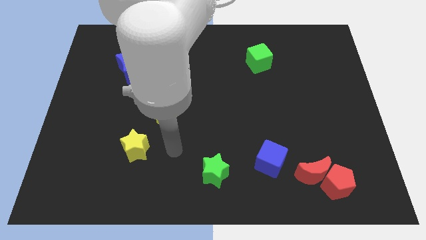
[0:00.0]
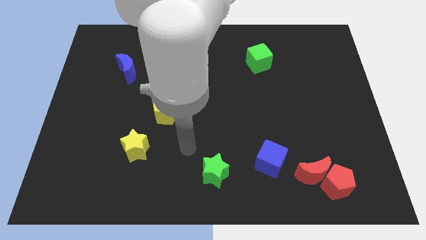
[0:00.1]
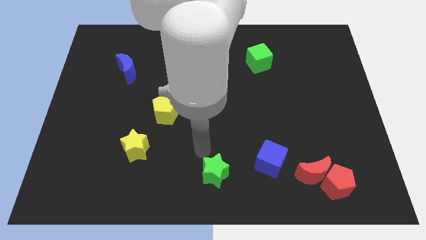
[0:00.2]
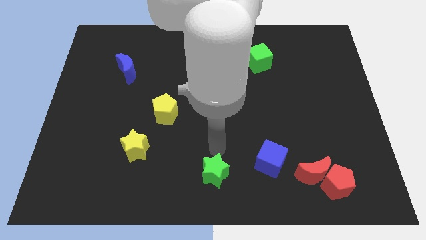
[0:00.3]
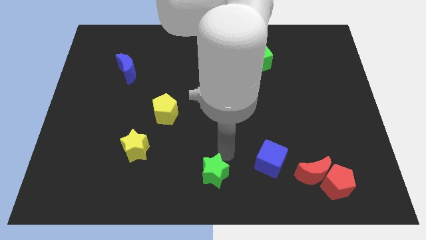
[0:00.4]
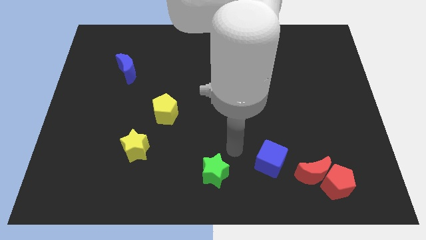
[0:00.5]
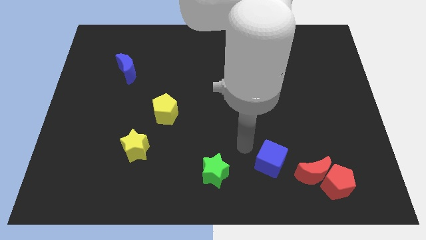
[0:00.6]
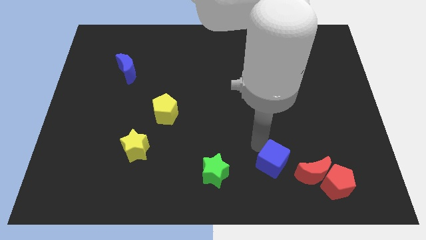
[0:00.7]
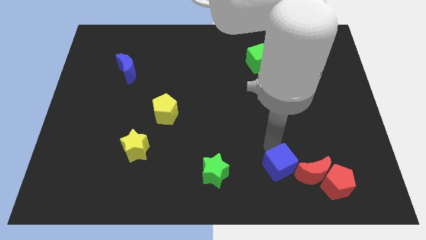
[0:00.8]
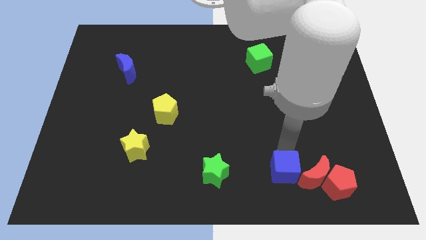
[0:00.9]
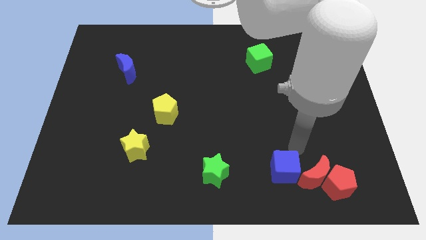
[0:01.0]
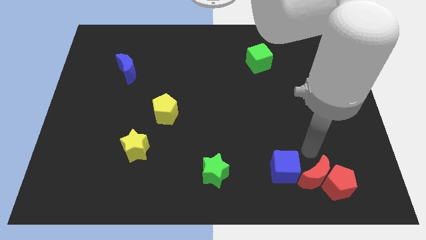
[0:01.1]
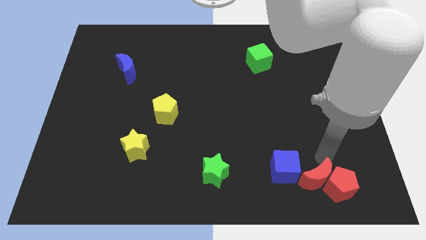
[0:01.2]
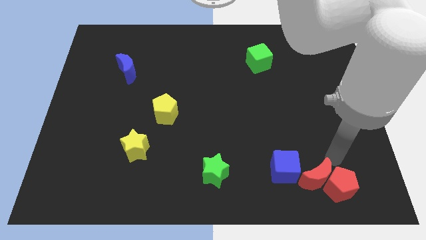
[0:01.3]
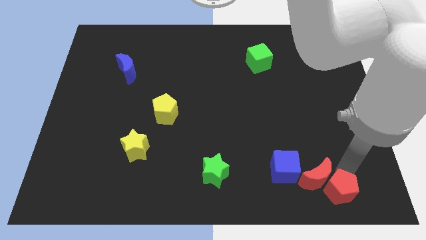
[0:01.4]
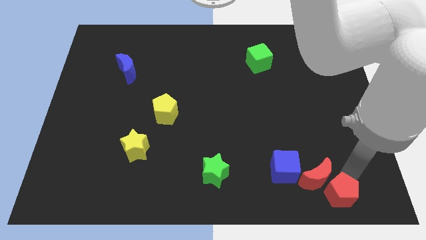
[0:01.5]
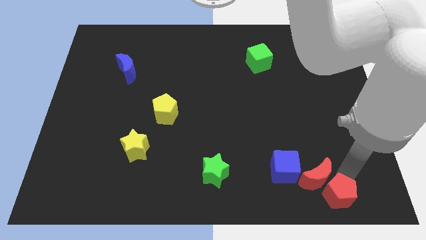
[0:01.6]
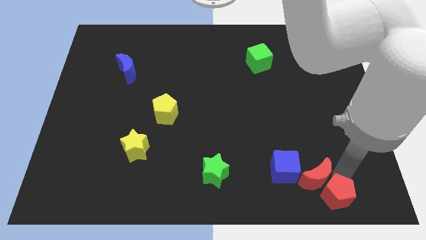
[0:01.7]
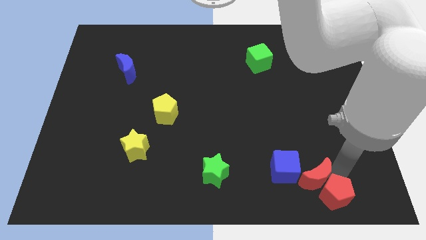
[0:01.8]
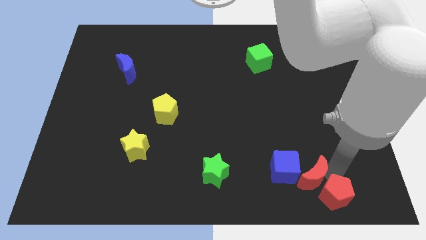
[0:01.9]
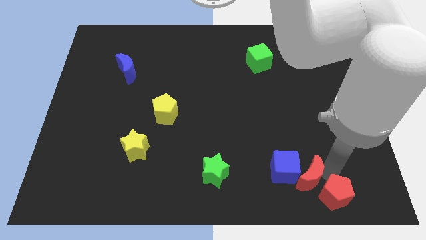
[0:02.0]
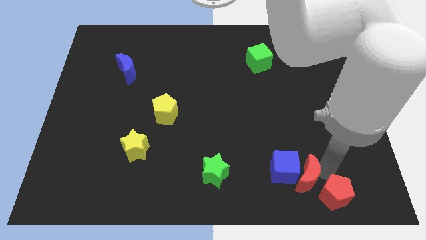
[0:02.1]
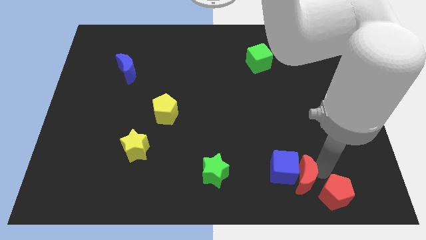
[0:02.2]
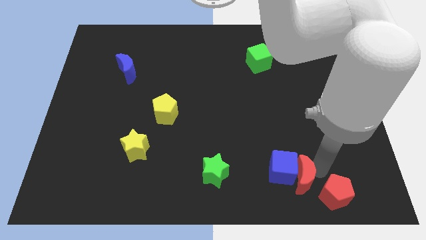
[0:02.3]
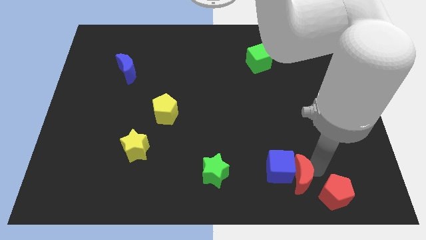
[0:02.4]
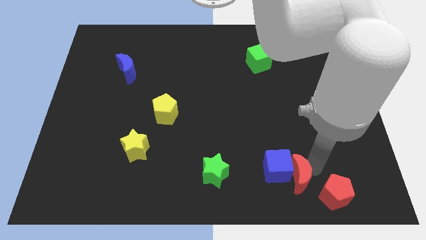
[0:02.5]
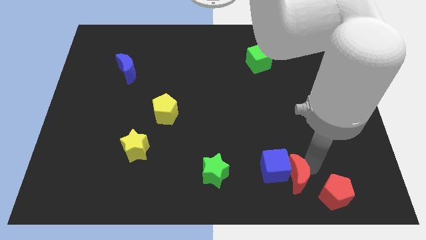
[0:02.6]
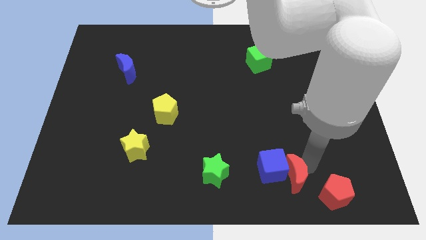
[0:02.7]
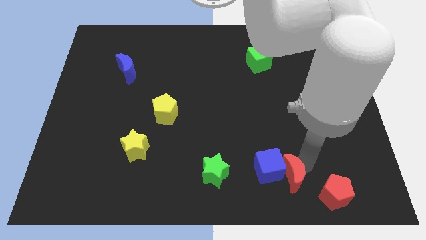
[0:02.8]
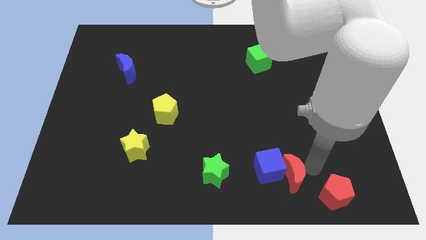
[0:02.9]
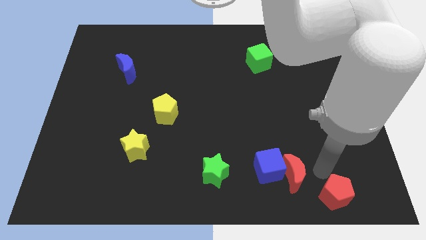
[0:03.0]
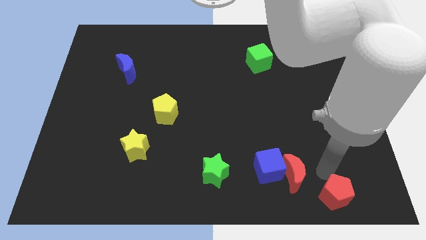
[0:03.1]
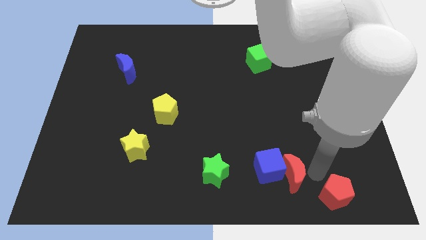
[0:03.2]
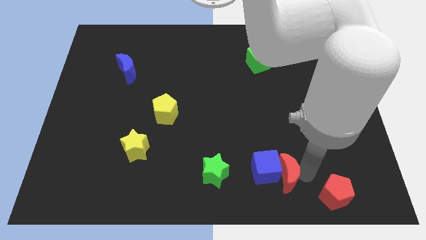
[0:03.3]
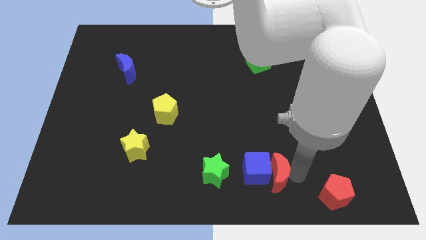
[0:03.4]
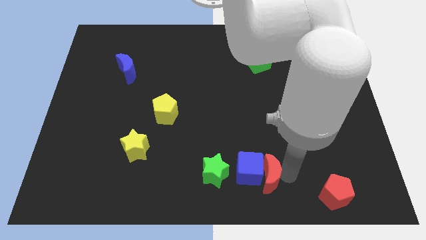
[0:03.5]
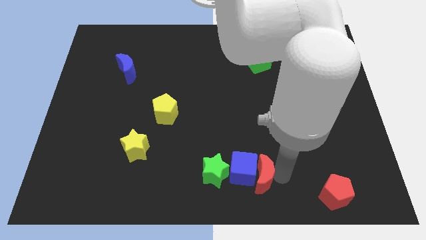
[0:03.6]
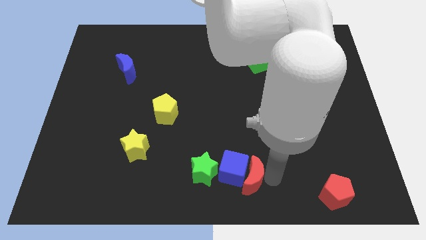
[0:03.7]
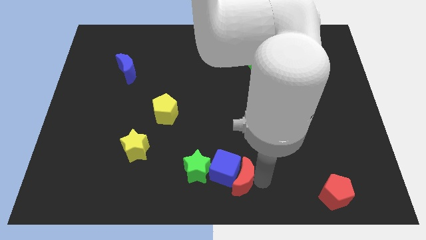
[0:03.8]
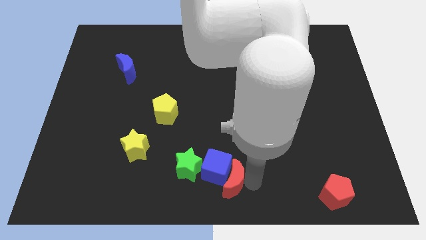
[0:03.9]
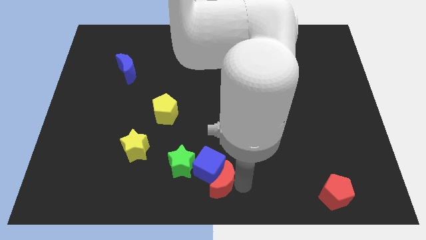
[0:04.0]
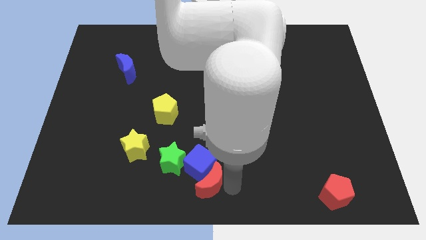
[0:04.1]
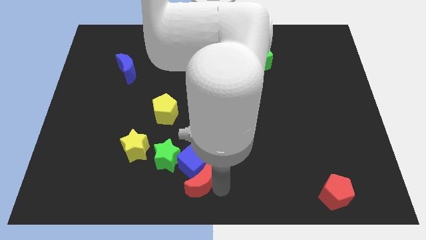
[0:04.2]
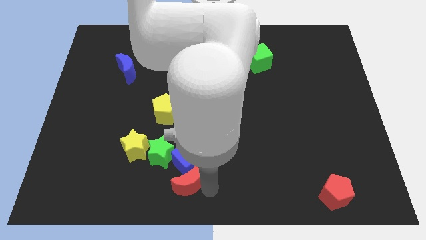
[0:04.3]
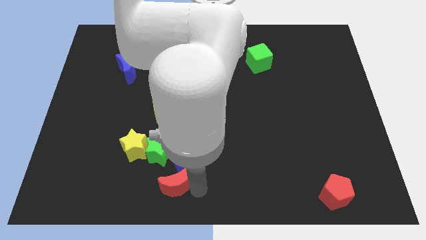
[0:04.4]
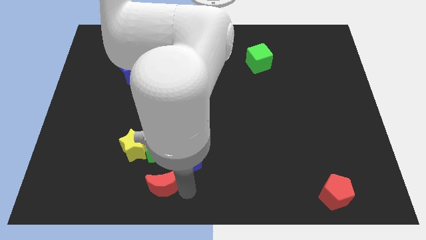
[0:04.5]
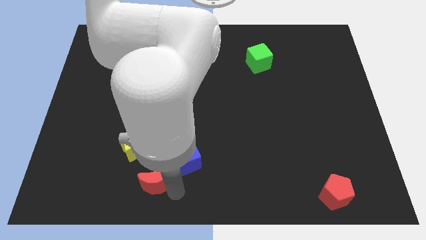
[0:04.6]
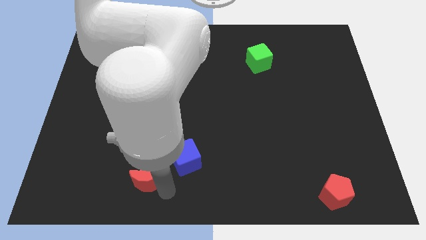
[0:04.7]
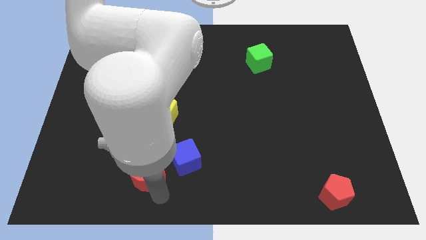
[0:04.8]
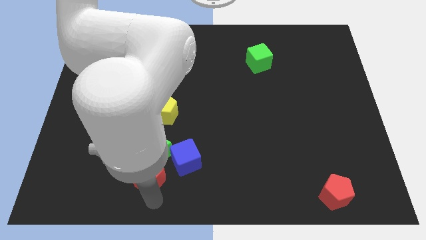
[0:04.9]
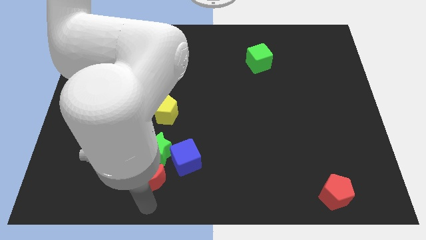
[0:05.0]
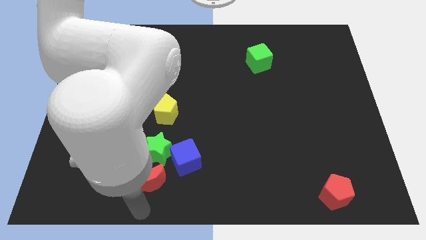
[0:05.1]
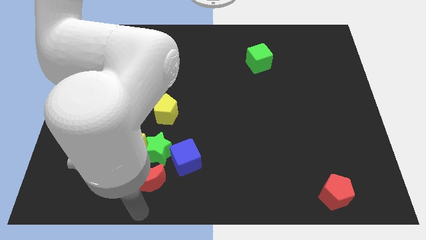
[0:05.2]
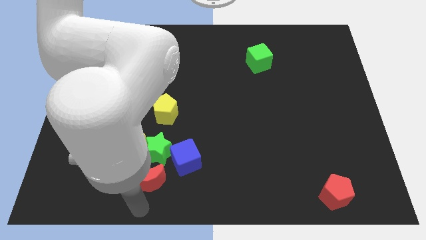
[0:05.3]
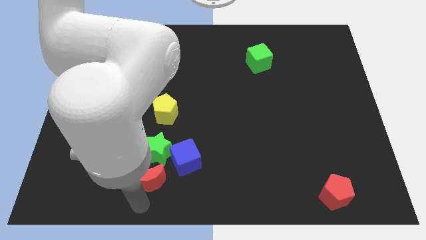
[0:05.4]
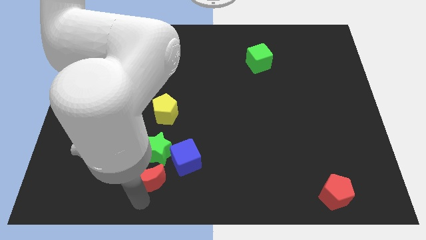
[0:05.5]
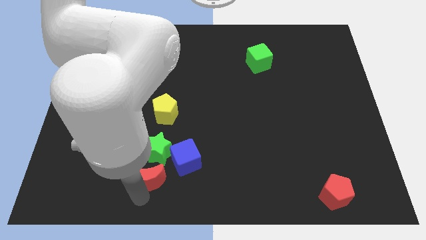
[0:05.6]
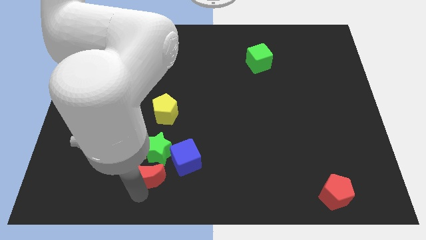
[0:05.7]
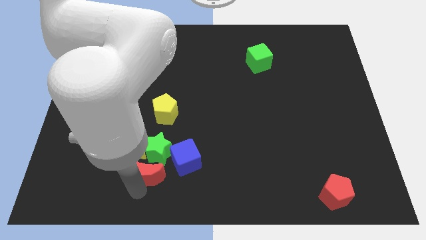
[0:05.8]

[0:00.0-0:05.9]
move the red moon to the green star
